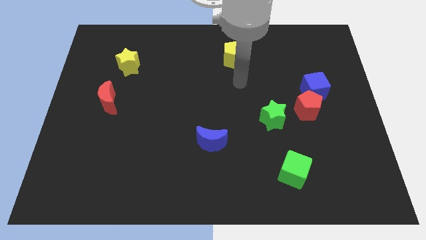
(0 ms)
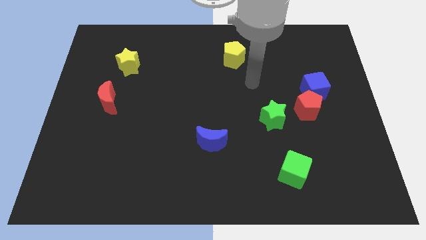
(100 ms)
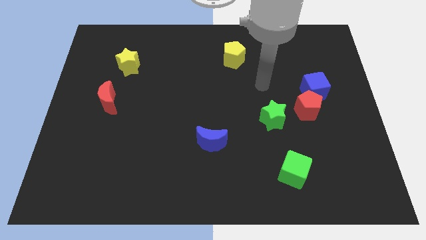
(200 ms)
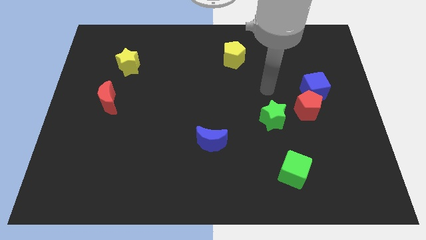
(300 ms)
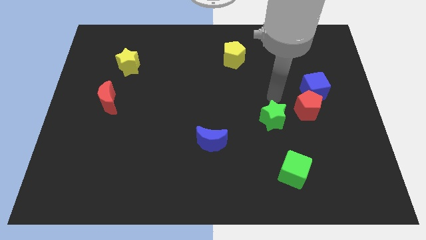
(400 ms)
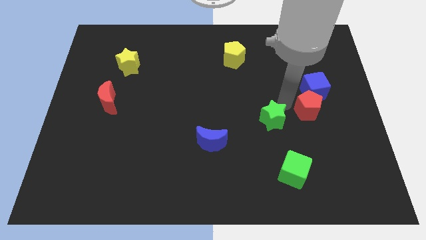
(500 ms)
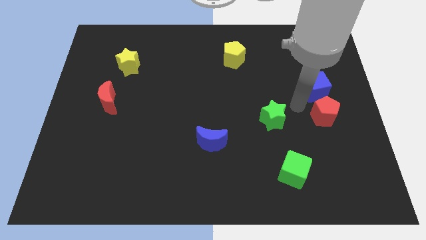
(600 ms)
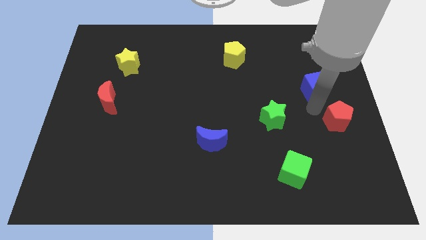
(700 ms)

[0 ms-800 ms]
pull the blue cube apart from the red pentagon

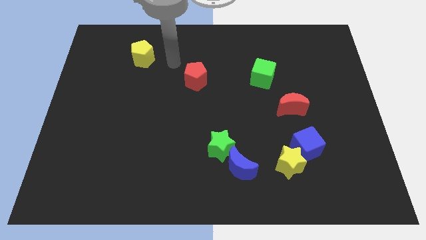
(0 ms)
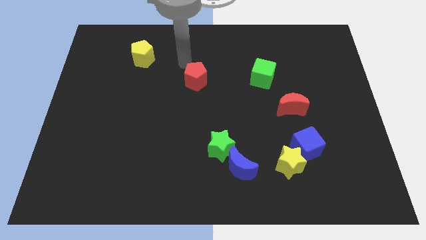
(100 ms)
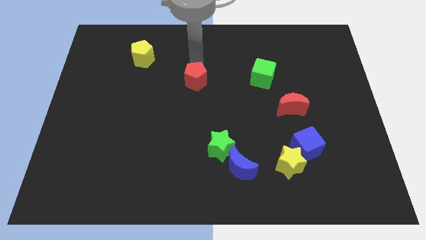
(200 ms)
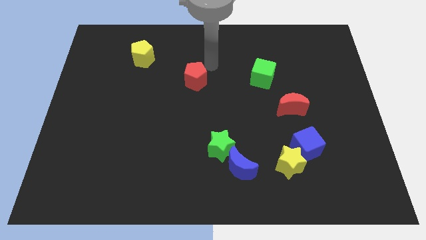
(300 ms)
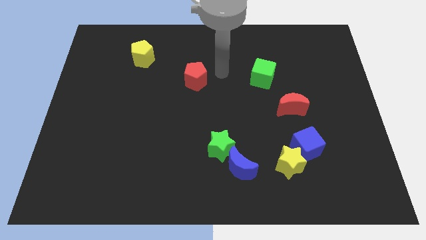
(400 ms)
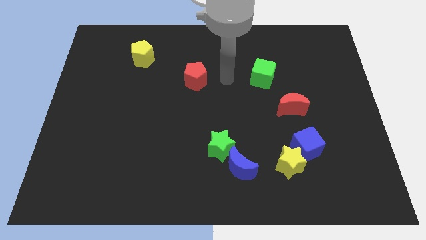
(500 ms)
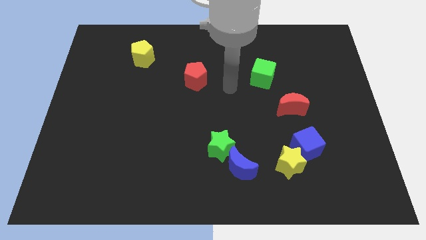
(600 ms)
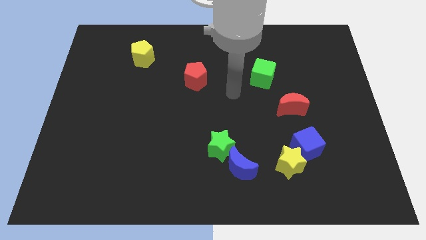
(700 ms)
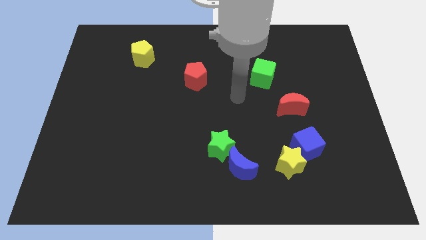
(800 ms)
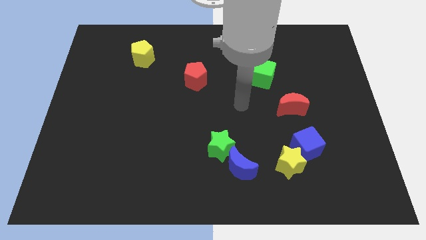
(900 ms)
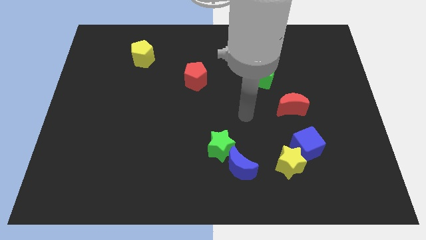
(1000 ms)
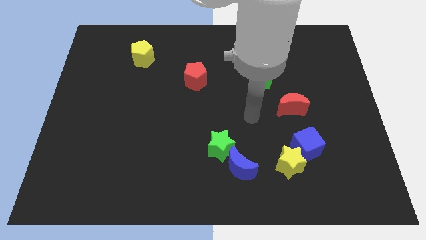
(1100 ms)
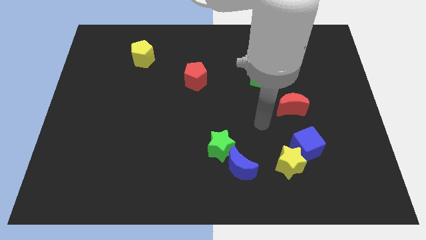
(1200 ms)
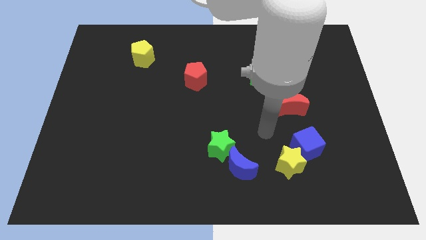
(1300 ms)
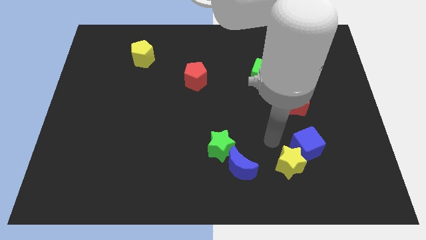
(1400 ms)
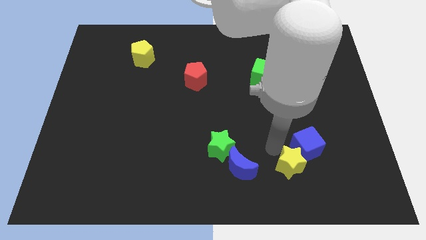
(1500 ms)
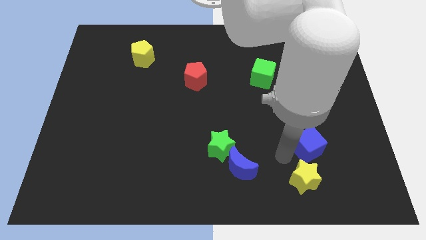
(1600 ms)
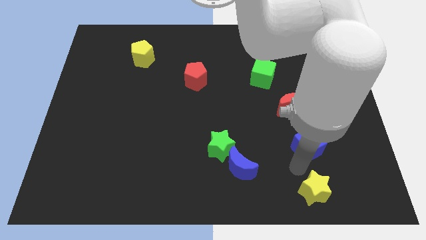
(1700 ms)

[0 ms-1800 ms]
move the blue cube away from the yellow star

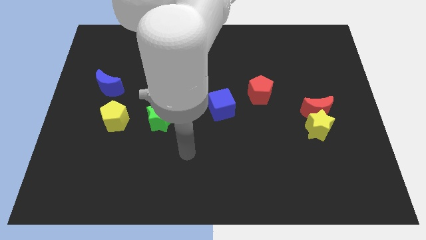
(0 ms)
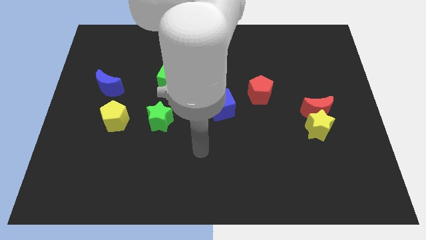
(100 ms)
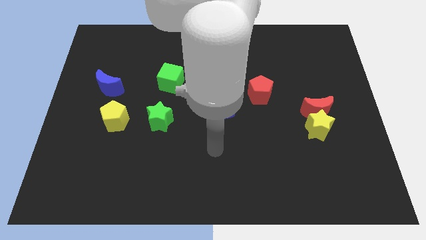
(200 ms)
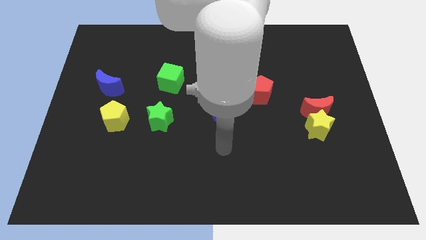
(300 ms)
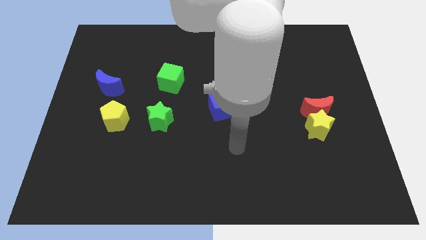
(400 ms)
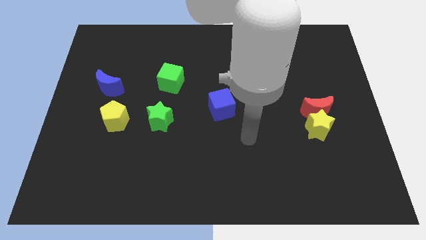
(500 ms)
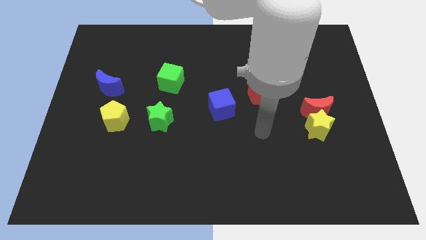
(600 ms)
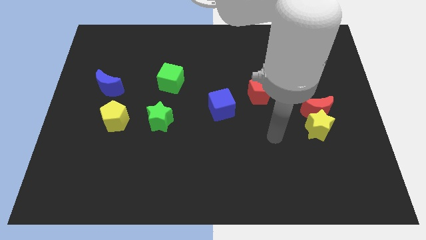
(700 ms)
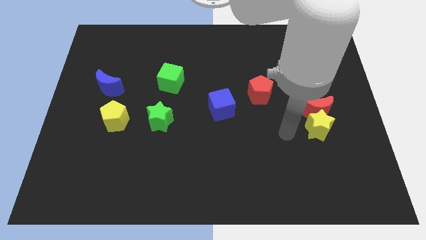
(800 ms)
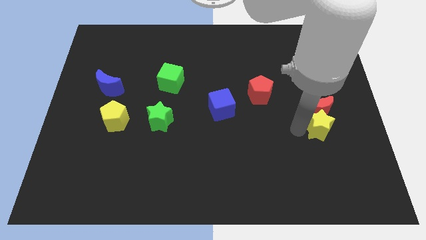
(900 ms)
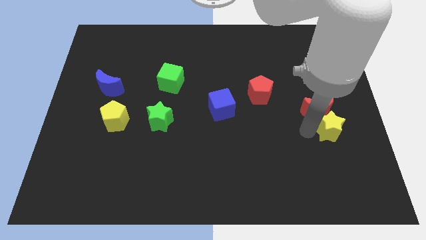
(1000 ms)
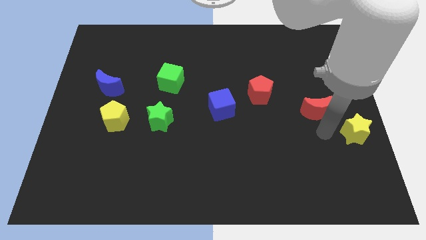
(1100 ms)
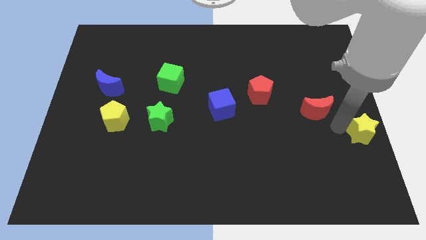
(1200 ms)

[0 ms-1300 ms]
move the red moon away from the yellow star

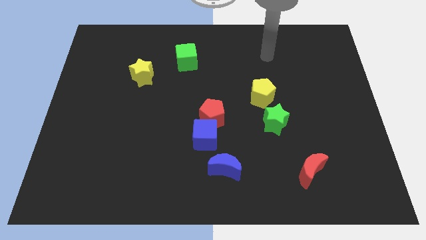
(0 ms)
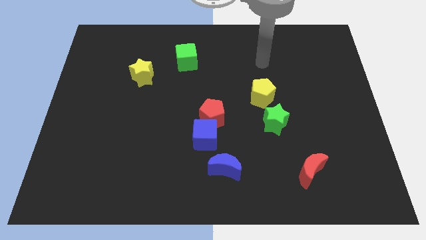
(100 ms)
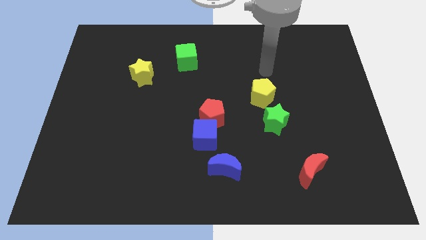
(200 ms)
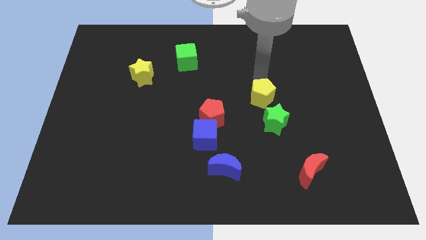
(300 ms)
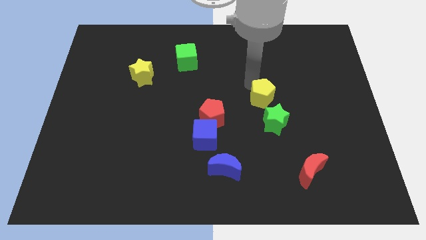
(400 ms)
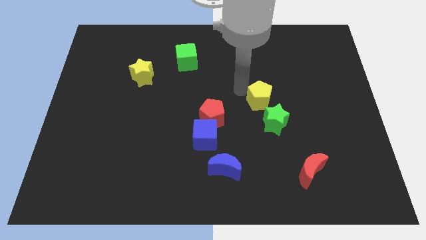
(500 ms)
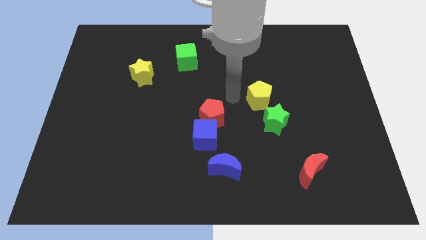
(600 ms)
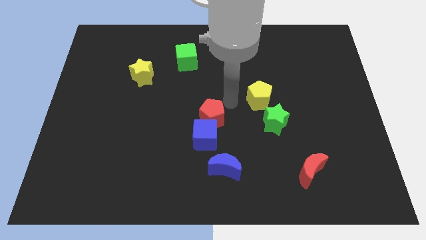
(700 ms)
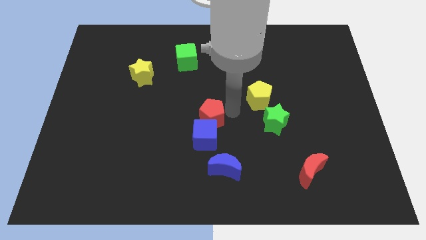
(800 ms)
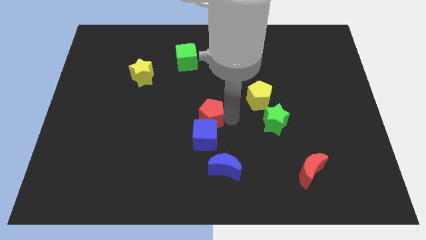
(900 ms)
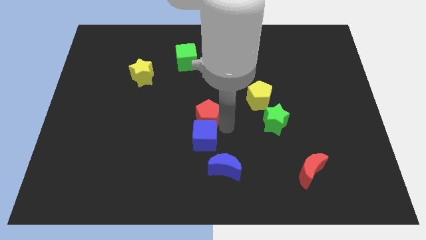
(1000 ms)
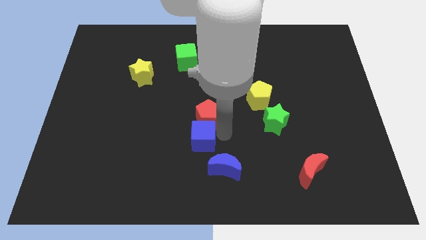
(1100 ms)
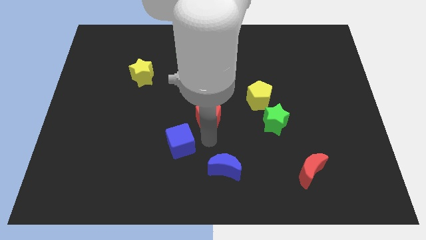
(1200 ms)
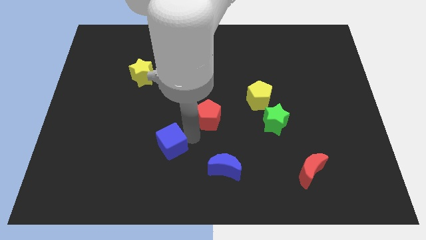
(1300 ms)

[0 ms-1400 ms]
move the red pentagon away from the blue cube

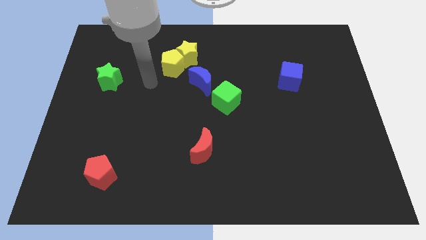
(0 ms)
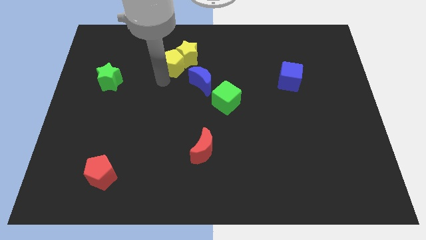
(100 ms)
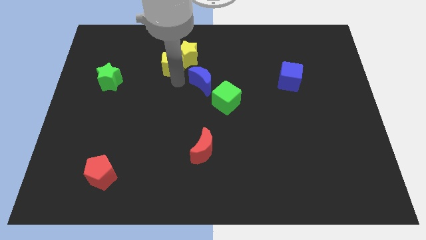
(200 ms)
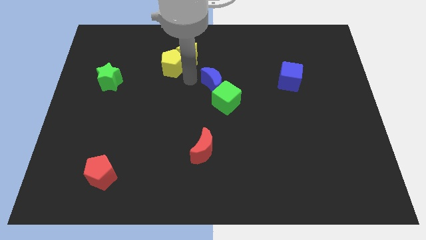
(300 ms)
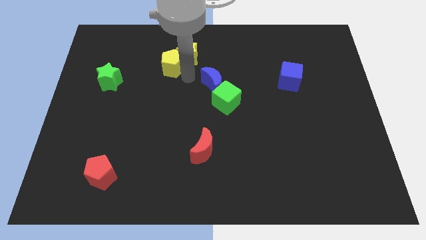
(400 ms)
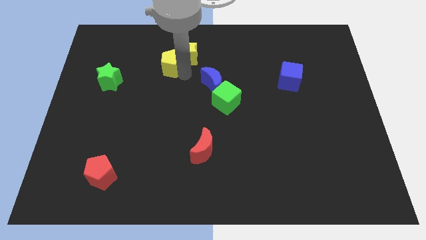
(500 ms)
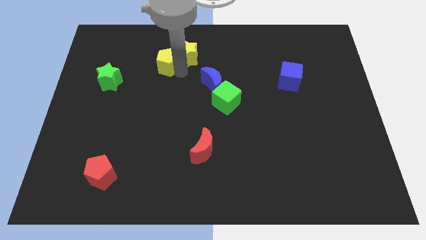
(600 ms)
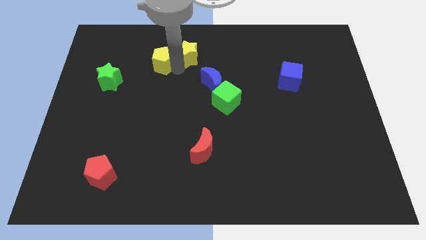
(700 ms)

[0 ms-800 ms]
move the yellow pentagon away from the yellow star and blue moon

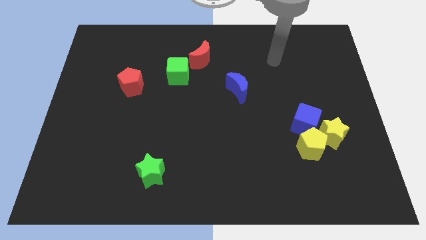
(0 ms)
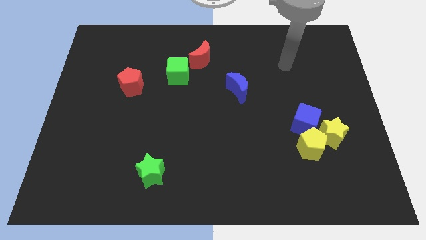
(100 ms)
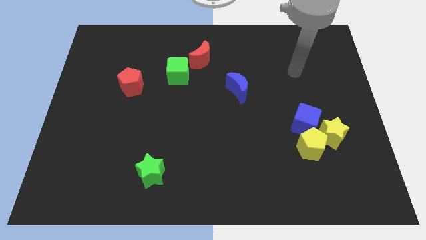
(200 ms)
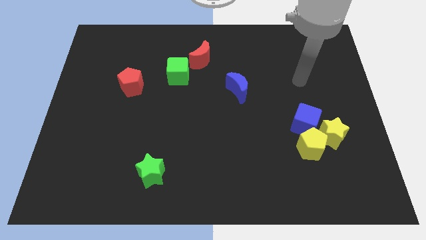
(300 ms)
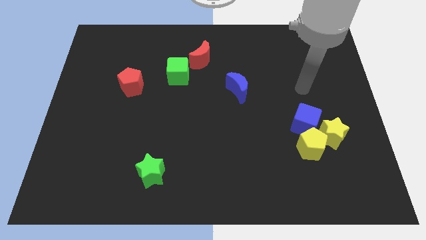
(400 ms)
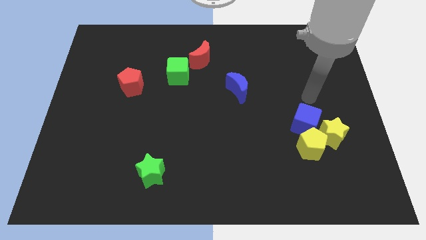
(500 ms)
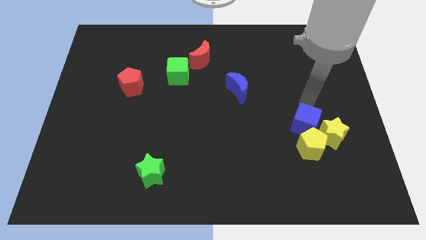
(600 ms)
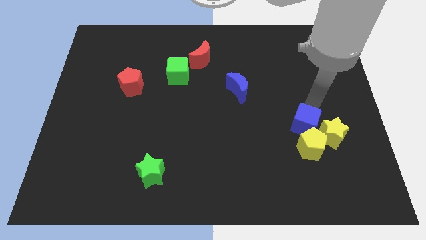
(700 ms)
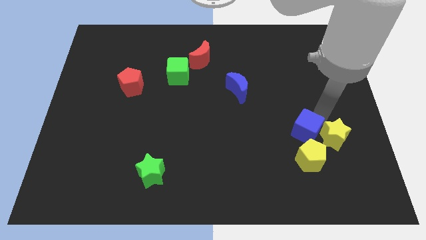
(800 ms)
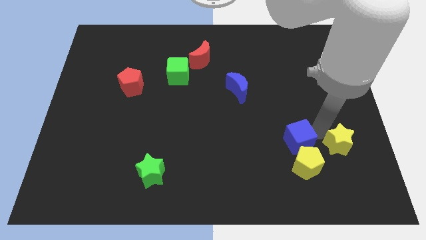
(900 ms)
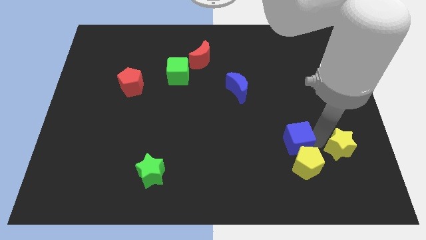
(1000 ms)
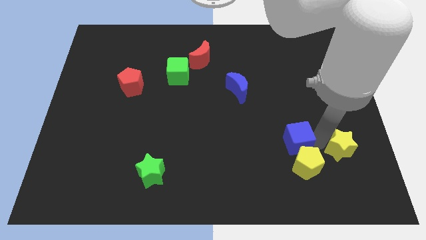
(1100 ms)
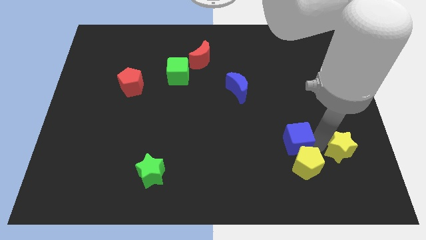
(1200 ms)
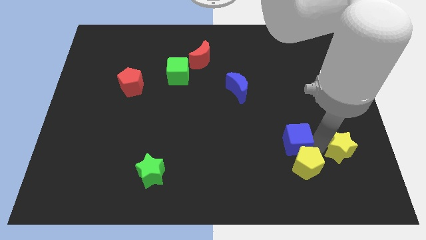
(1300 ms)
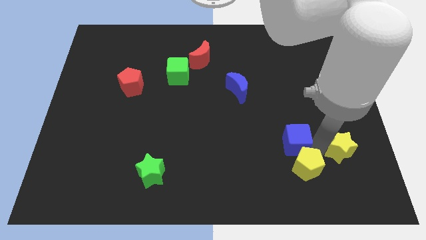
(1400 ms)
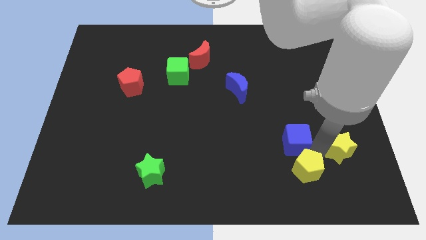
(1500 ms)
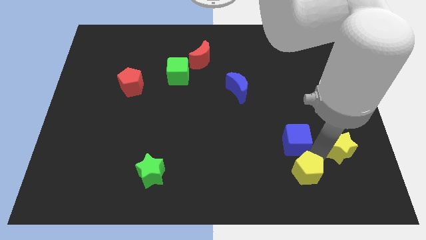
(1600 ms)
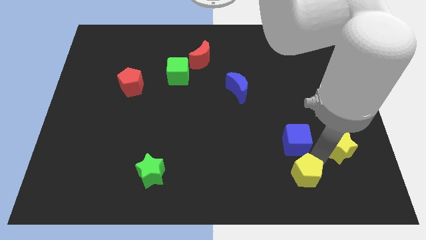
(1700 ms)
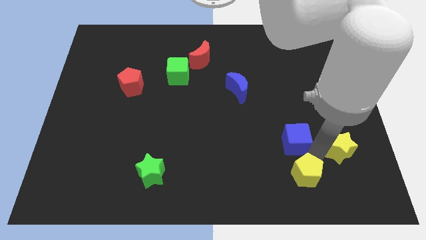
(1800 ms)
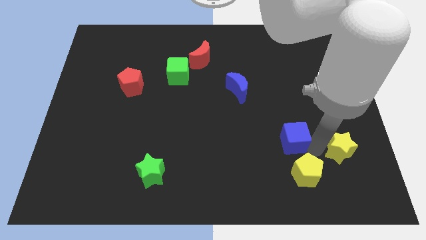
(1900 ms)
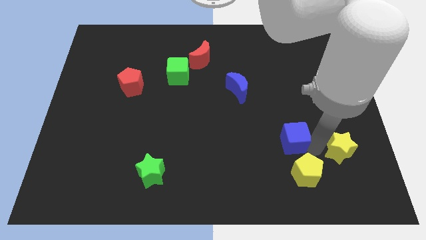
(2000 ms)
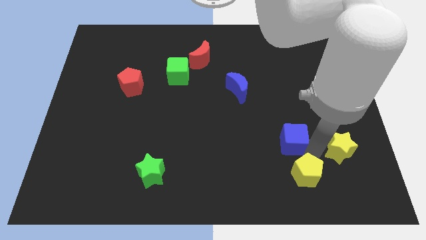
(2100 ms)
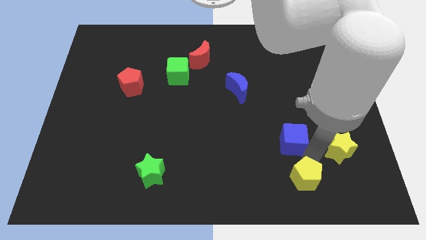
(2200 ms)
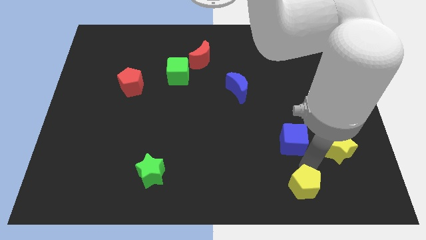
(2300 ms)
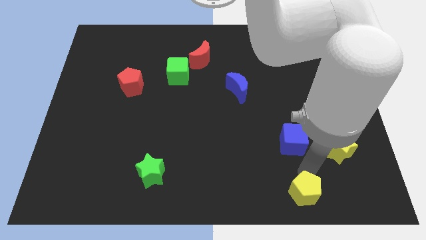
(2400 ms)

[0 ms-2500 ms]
separate the yellow pentagon from the yellow star and blue cube

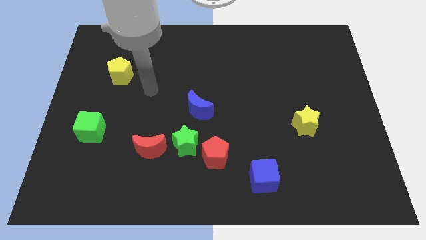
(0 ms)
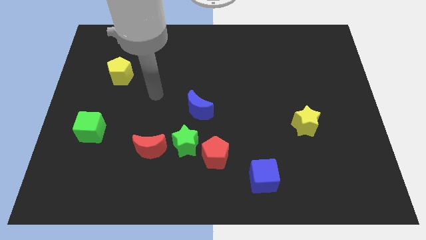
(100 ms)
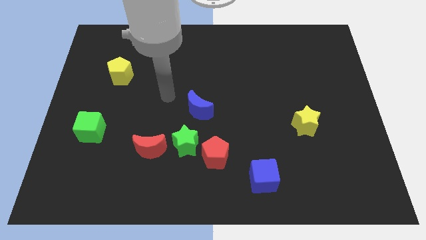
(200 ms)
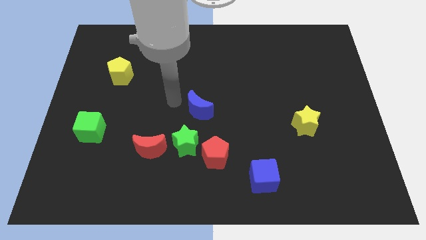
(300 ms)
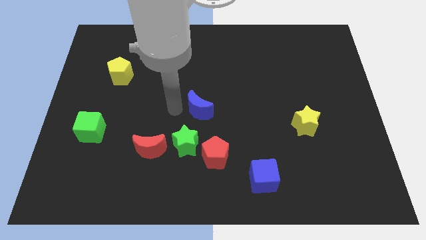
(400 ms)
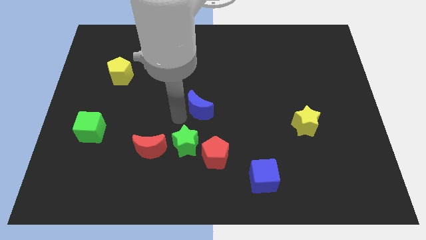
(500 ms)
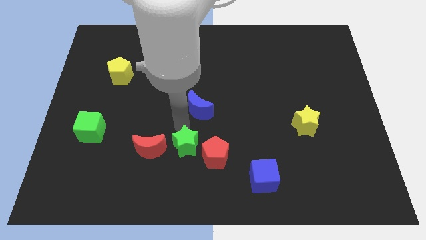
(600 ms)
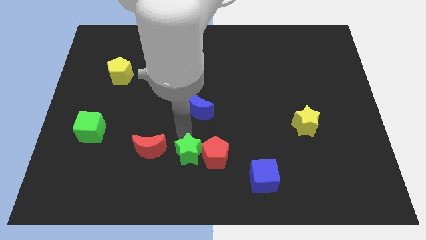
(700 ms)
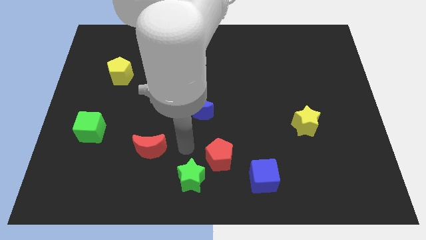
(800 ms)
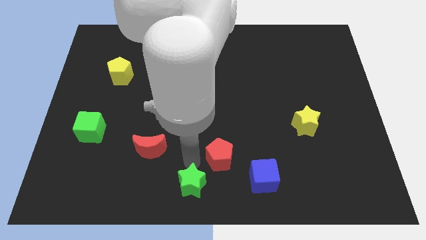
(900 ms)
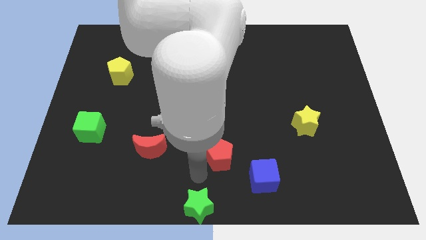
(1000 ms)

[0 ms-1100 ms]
pull the red pentagon apart from the green star
